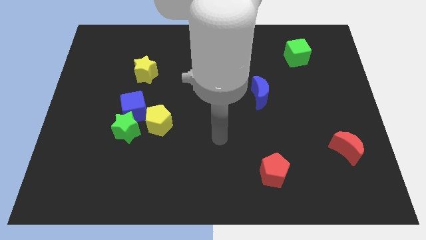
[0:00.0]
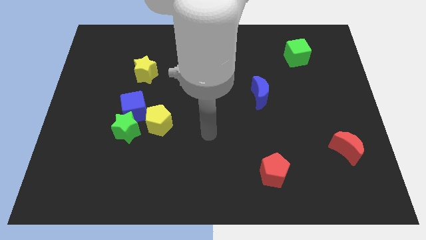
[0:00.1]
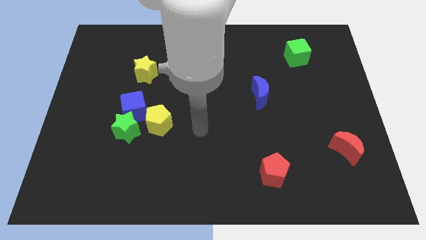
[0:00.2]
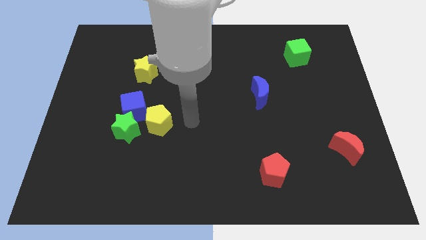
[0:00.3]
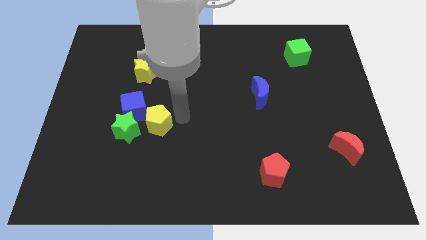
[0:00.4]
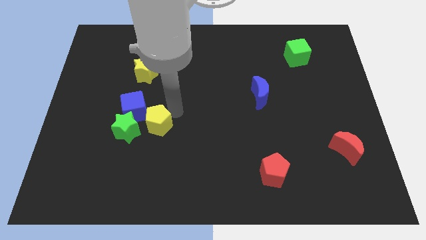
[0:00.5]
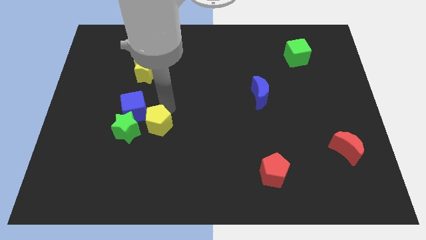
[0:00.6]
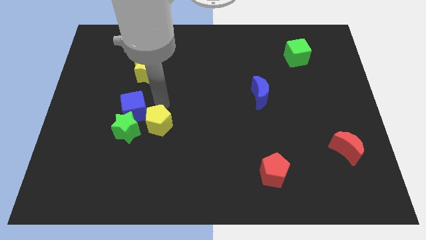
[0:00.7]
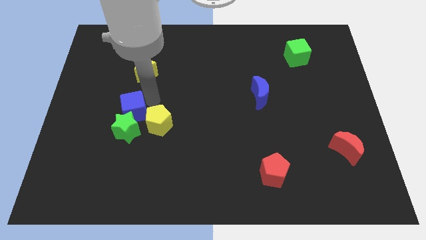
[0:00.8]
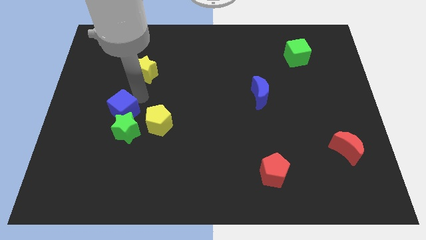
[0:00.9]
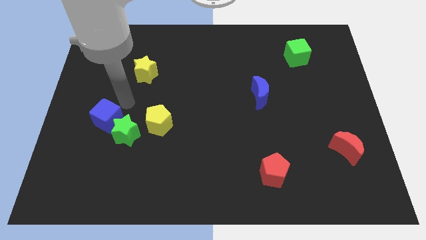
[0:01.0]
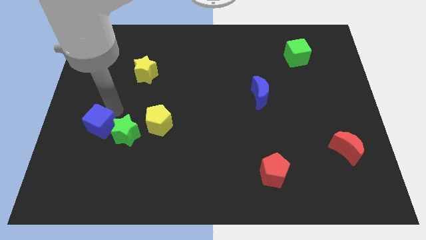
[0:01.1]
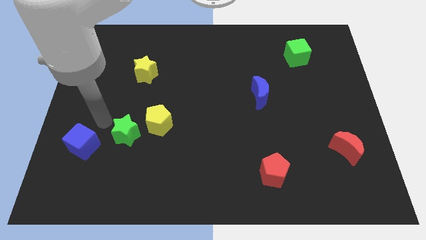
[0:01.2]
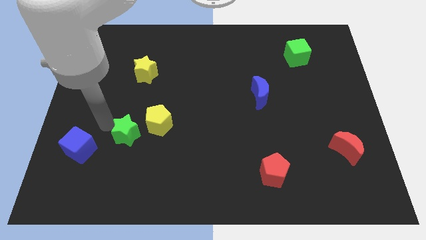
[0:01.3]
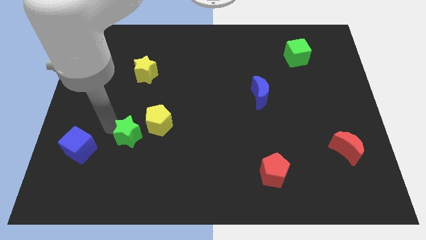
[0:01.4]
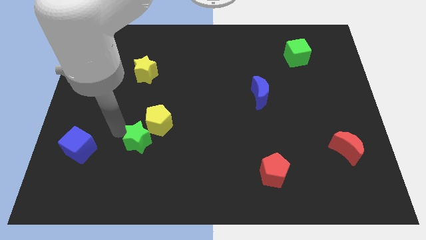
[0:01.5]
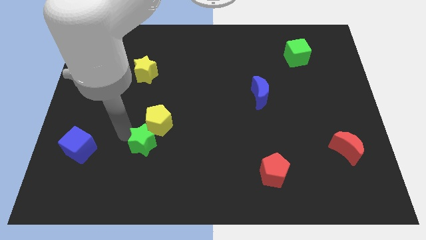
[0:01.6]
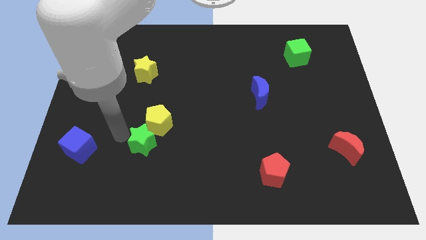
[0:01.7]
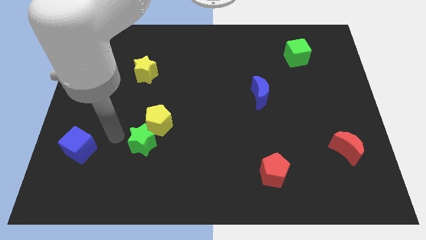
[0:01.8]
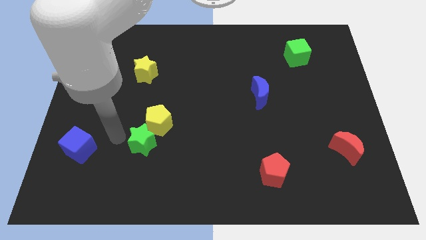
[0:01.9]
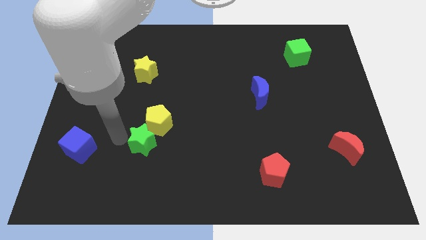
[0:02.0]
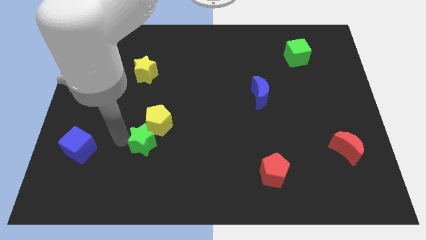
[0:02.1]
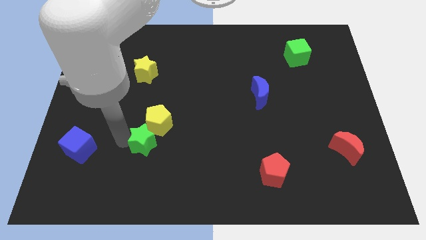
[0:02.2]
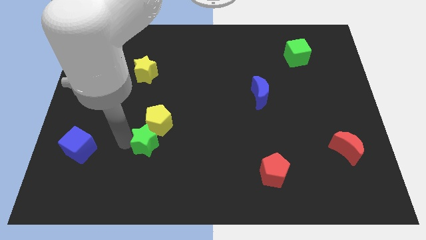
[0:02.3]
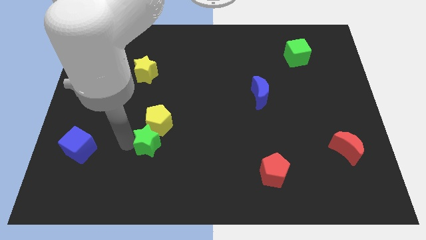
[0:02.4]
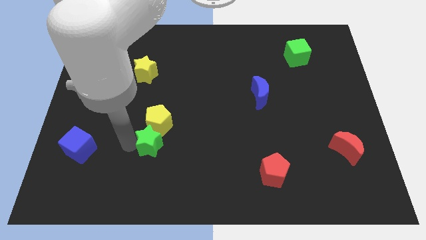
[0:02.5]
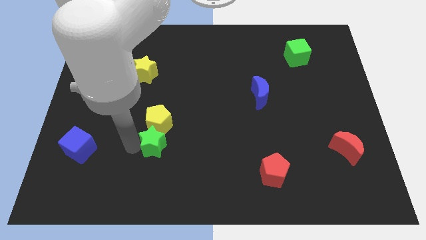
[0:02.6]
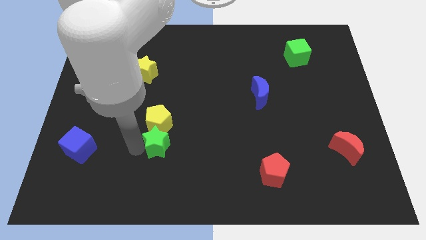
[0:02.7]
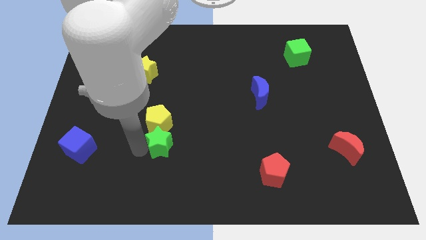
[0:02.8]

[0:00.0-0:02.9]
slightly move the green star right

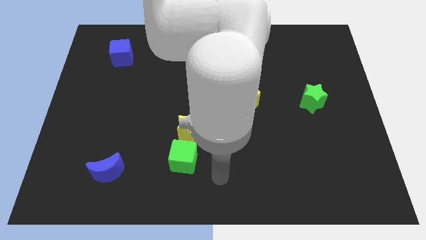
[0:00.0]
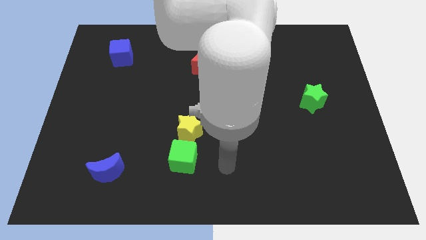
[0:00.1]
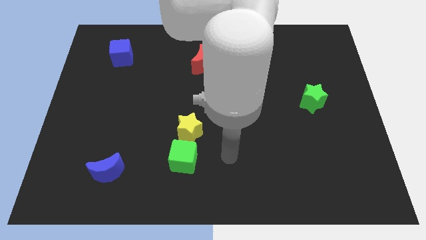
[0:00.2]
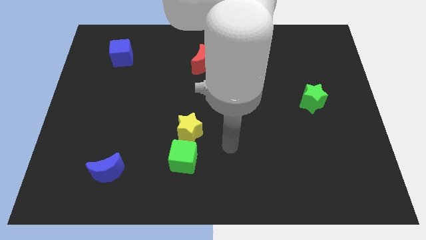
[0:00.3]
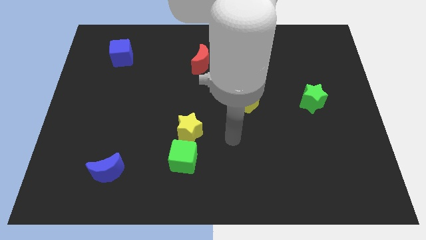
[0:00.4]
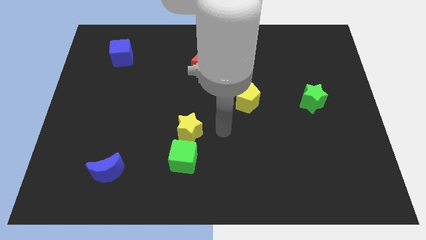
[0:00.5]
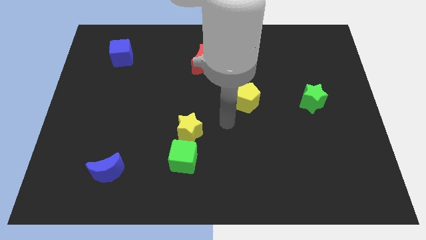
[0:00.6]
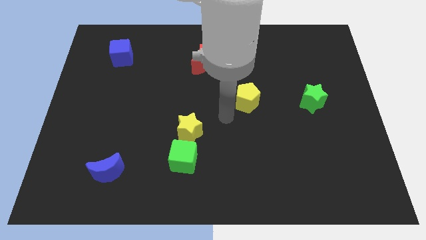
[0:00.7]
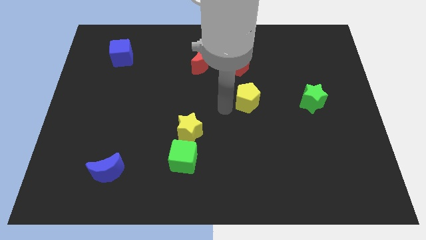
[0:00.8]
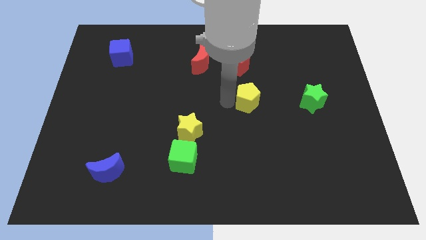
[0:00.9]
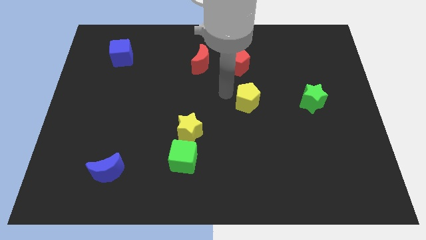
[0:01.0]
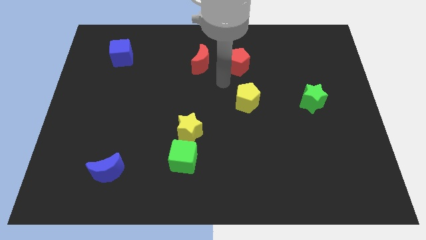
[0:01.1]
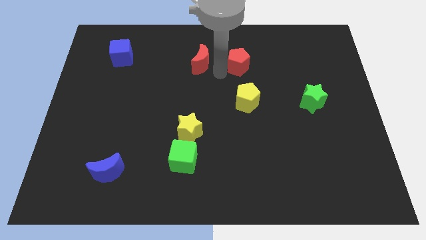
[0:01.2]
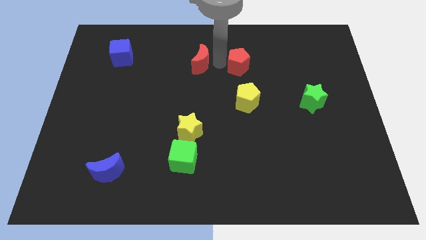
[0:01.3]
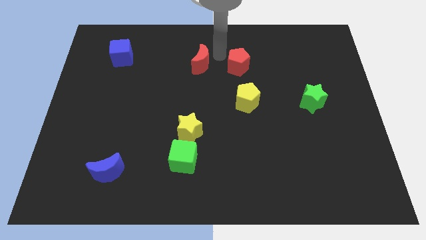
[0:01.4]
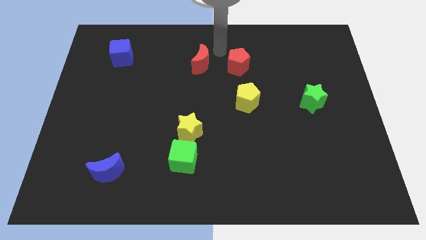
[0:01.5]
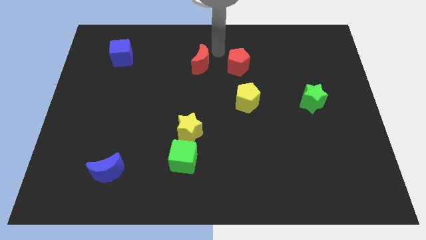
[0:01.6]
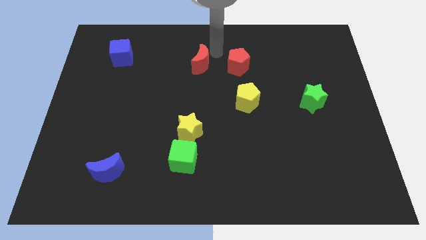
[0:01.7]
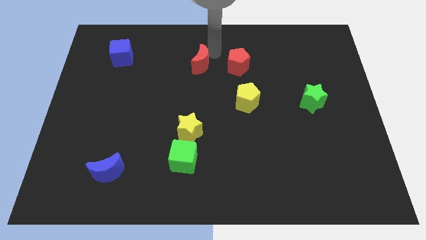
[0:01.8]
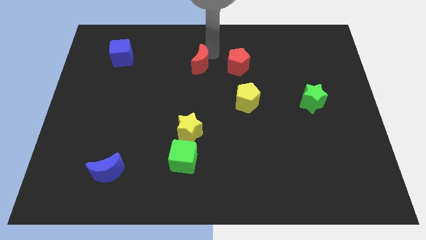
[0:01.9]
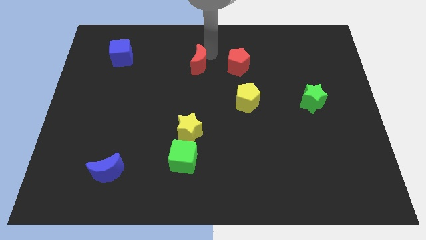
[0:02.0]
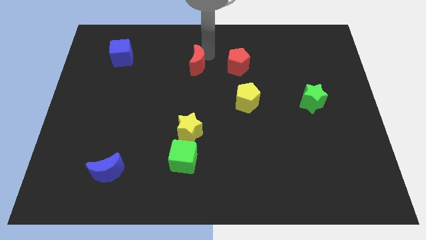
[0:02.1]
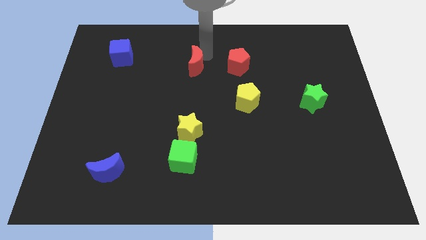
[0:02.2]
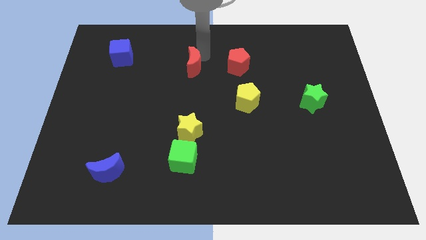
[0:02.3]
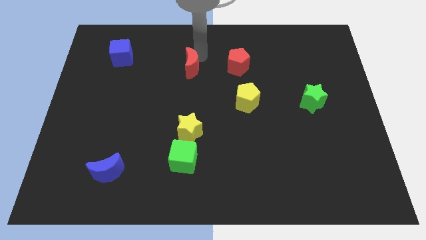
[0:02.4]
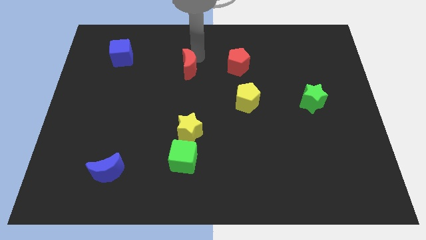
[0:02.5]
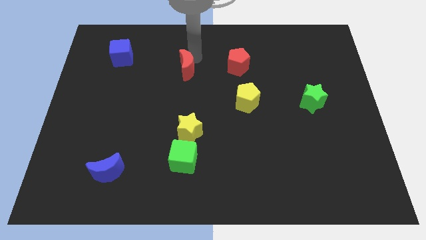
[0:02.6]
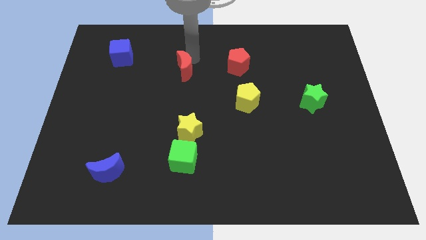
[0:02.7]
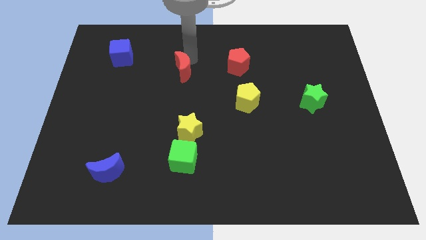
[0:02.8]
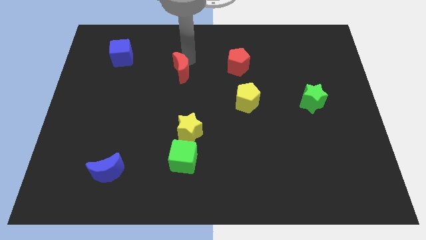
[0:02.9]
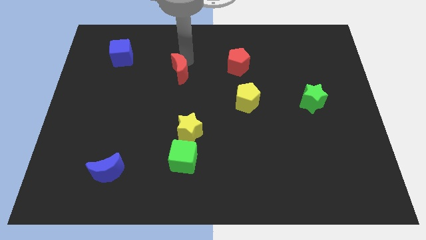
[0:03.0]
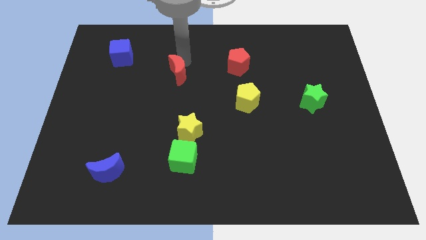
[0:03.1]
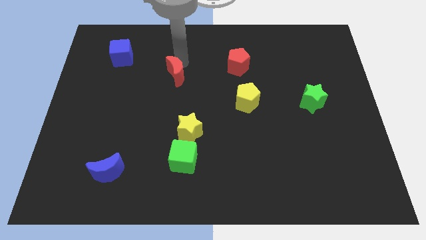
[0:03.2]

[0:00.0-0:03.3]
move the red moon downwards and left somewhat

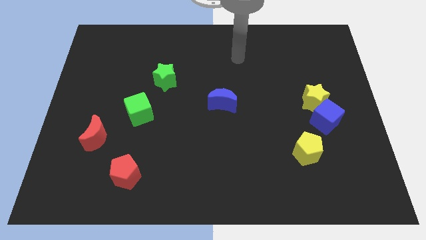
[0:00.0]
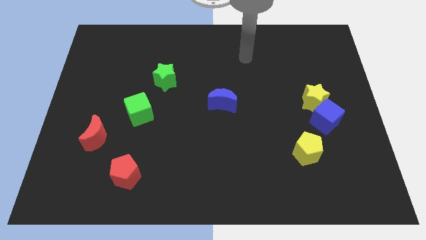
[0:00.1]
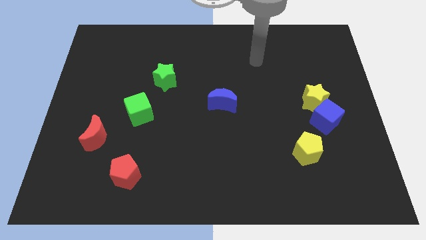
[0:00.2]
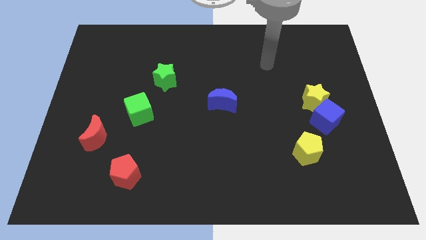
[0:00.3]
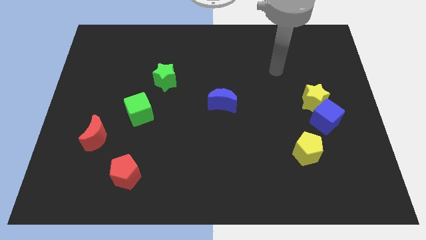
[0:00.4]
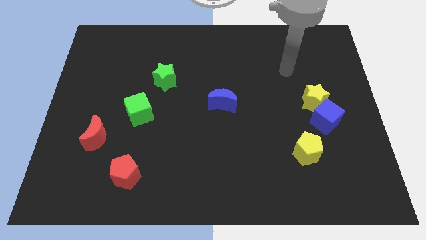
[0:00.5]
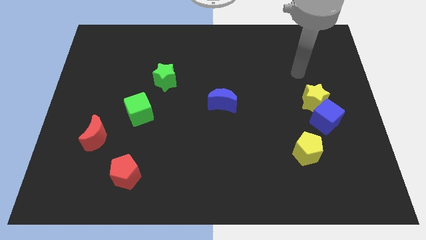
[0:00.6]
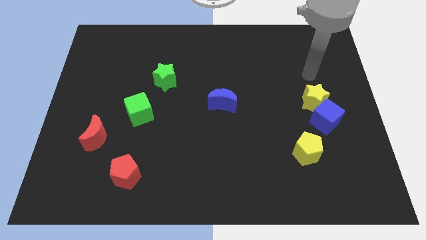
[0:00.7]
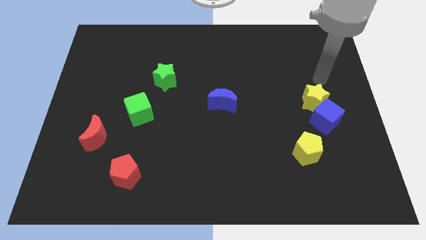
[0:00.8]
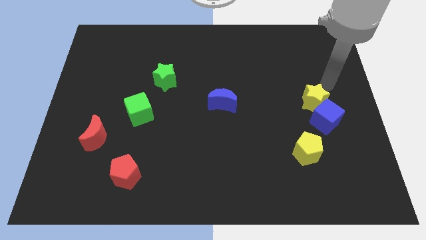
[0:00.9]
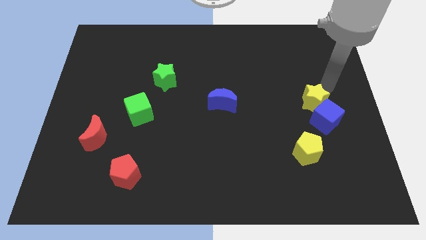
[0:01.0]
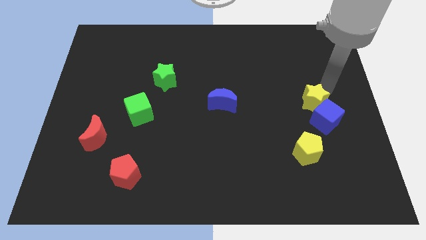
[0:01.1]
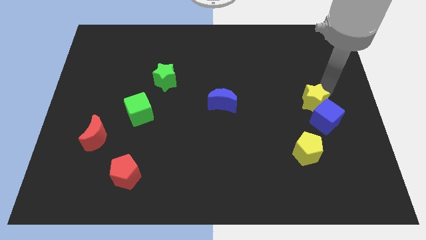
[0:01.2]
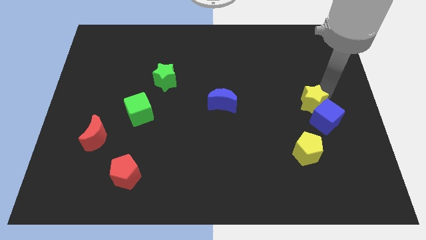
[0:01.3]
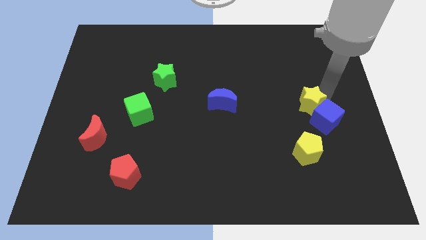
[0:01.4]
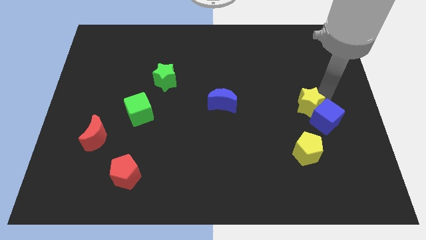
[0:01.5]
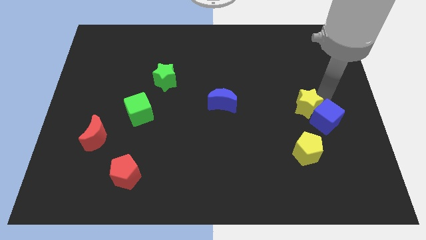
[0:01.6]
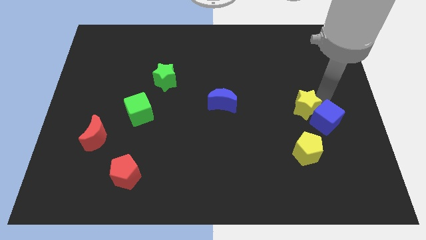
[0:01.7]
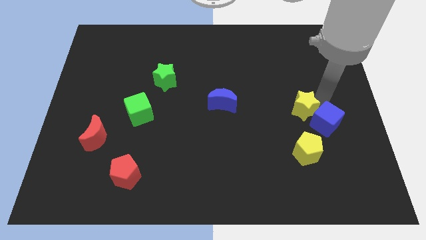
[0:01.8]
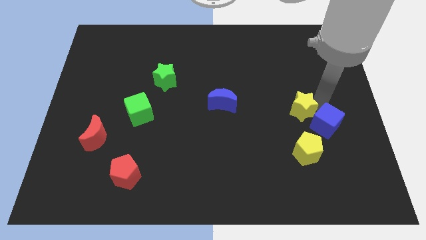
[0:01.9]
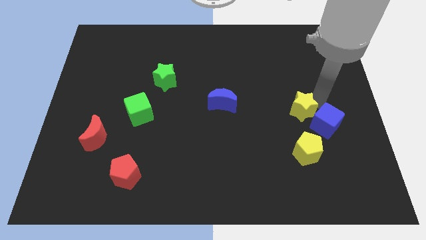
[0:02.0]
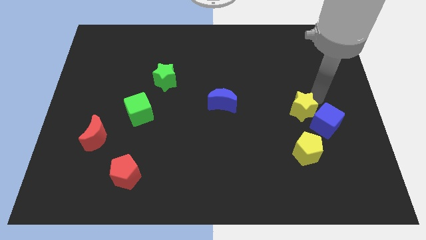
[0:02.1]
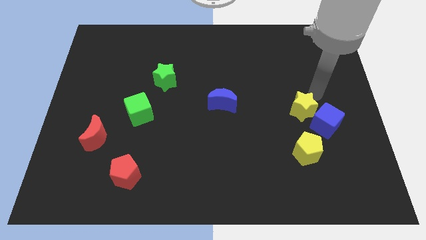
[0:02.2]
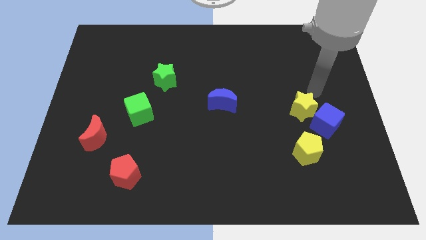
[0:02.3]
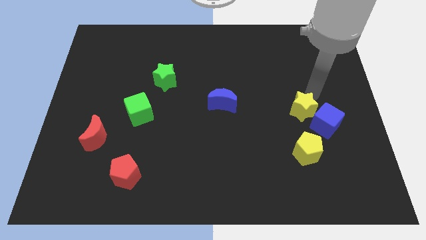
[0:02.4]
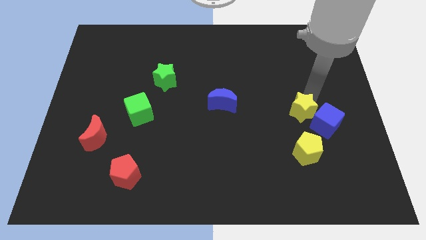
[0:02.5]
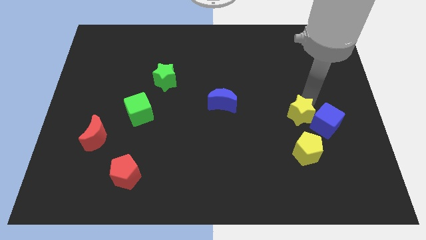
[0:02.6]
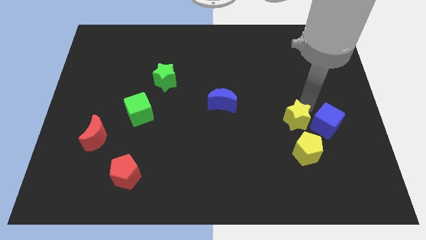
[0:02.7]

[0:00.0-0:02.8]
slightly slide the yellow star down and then left
